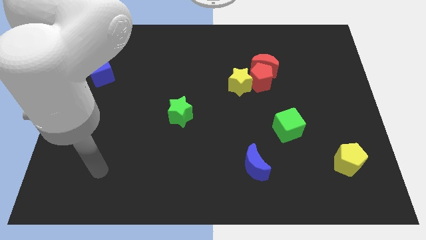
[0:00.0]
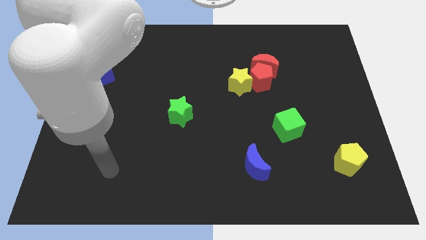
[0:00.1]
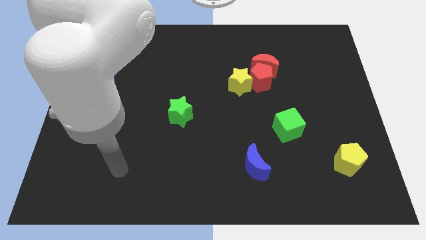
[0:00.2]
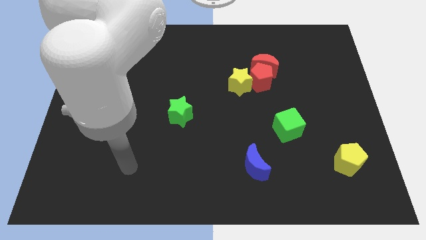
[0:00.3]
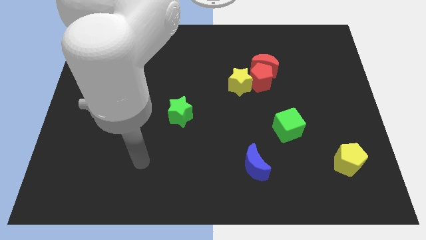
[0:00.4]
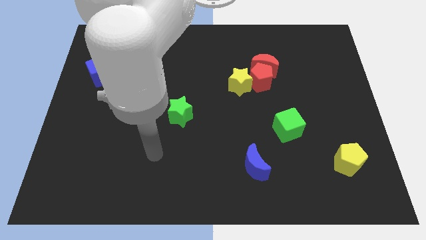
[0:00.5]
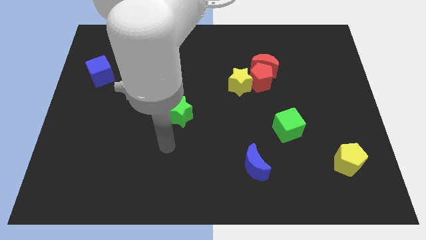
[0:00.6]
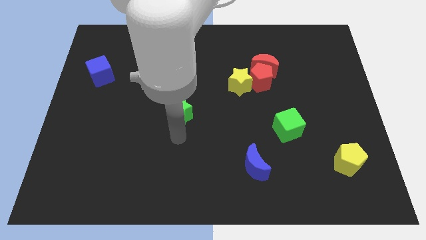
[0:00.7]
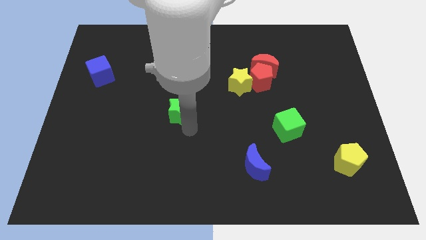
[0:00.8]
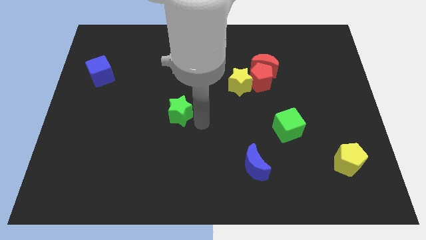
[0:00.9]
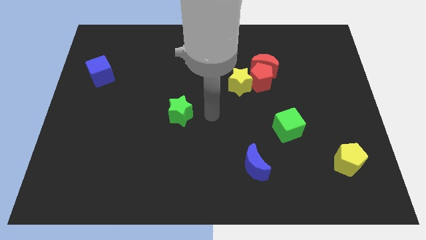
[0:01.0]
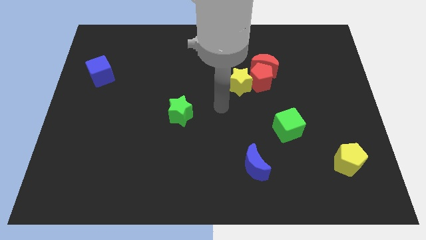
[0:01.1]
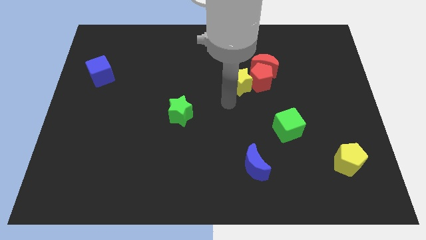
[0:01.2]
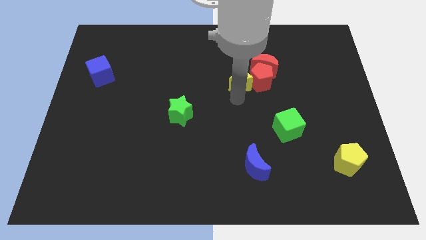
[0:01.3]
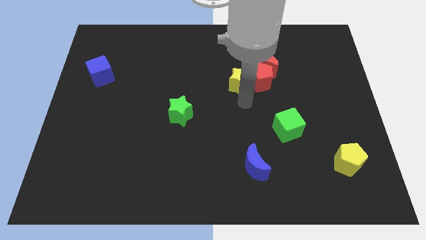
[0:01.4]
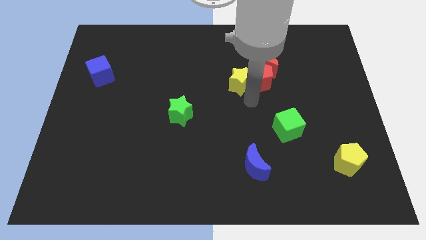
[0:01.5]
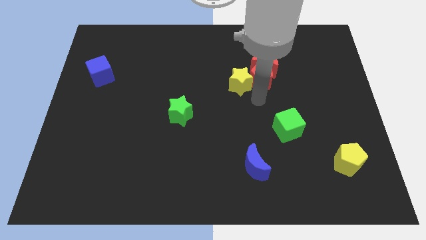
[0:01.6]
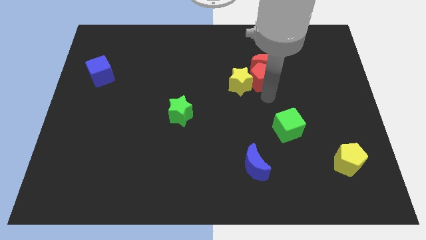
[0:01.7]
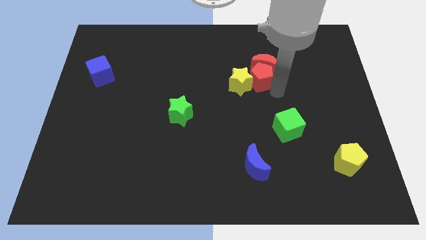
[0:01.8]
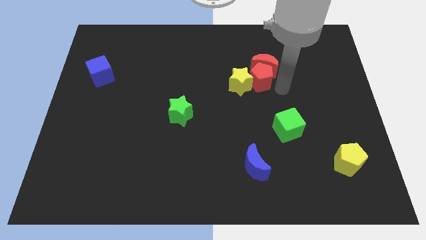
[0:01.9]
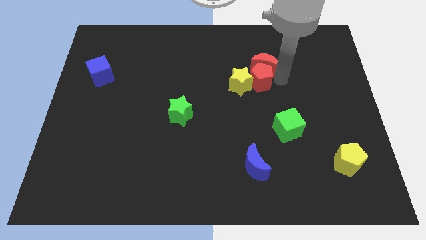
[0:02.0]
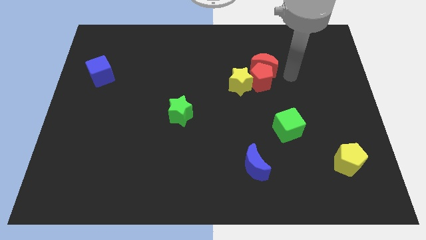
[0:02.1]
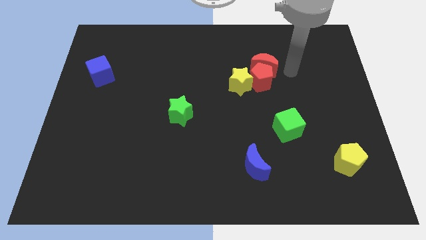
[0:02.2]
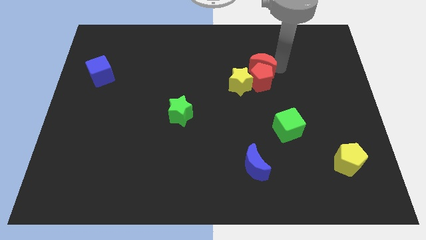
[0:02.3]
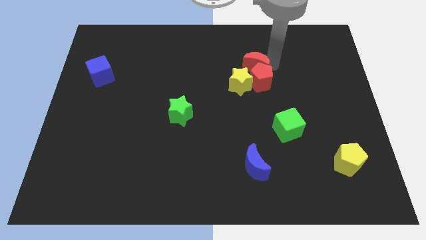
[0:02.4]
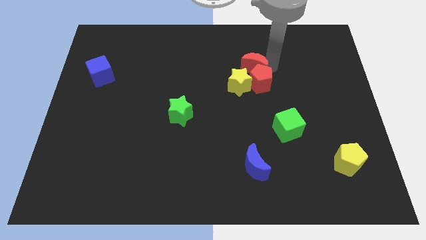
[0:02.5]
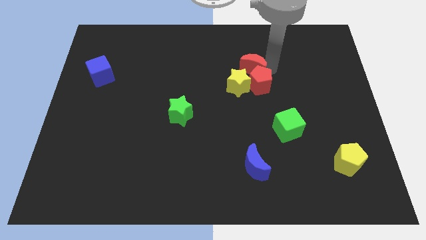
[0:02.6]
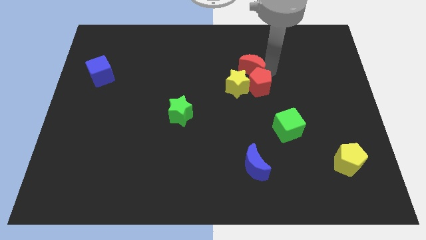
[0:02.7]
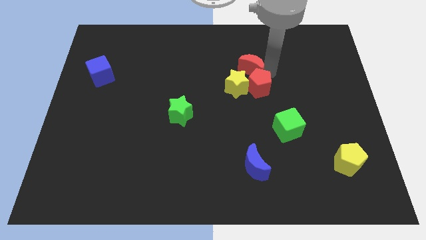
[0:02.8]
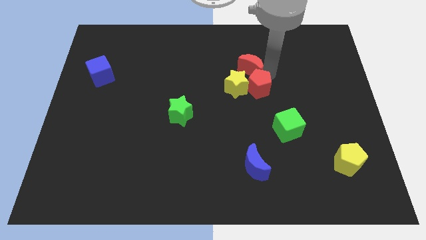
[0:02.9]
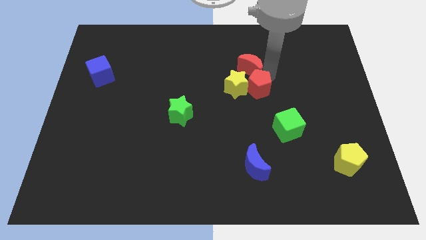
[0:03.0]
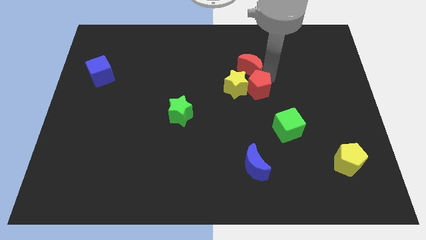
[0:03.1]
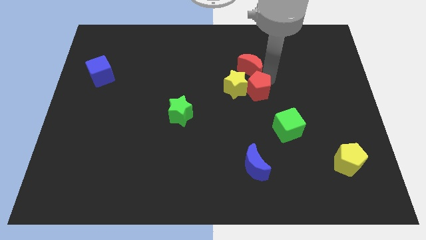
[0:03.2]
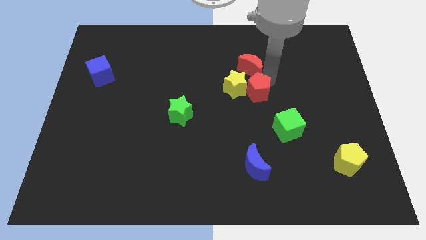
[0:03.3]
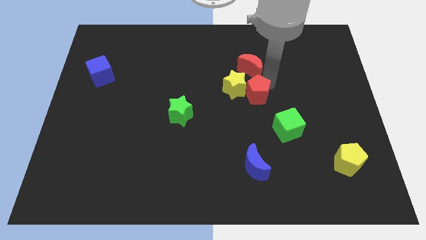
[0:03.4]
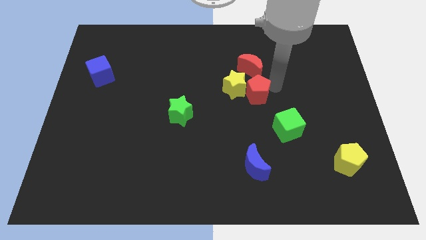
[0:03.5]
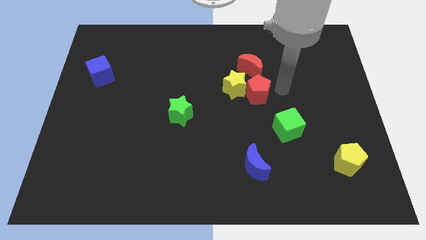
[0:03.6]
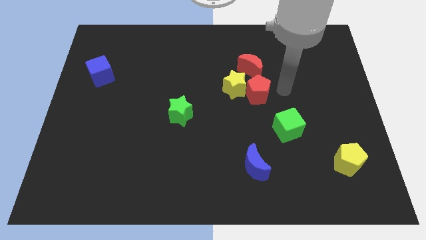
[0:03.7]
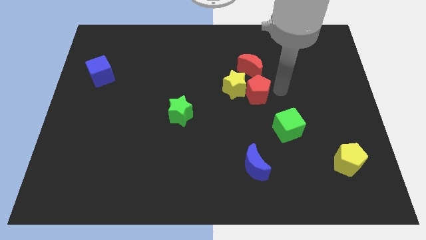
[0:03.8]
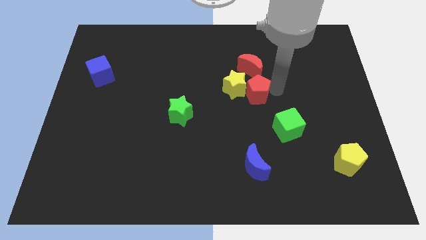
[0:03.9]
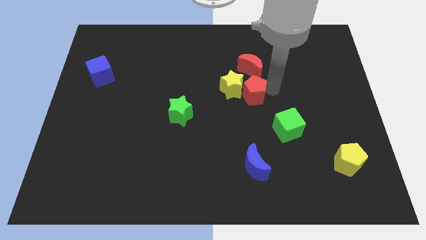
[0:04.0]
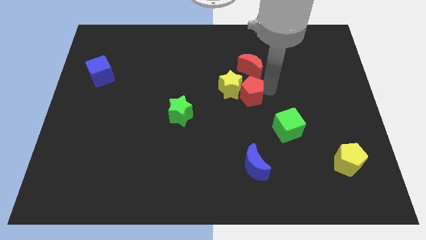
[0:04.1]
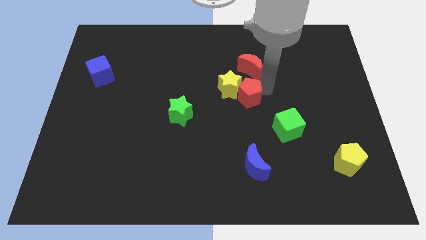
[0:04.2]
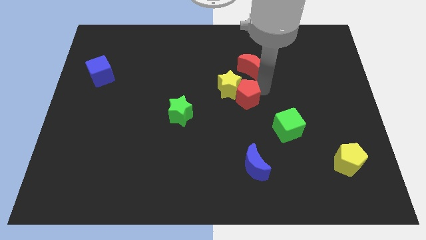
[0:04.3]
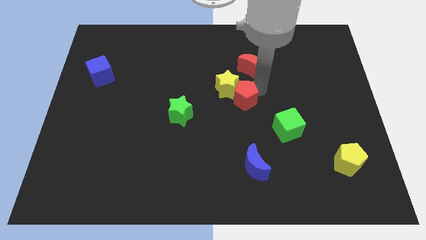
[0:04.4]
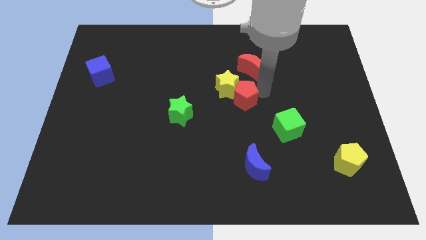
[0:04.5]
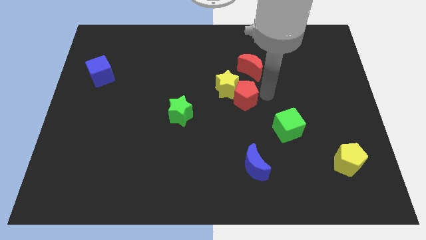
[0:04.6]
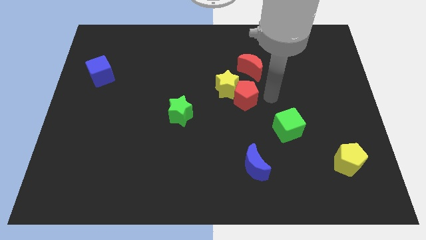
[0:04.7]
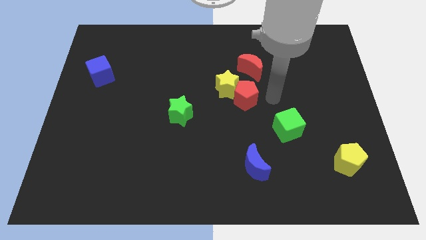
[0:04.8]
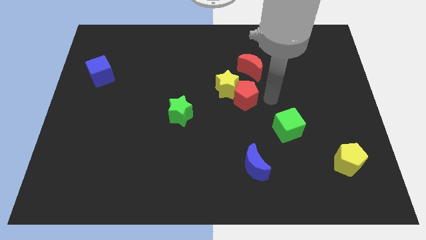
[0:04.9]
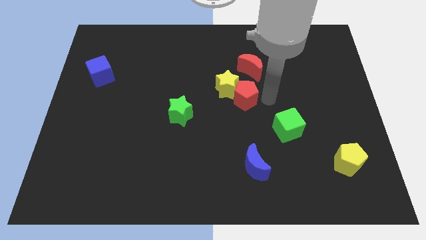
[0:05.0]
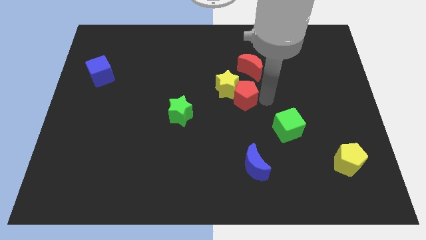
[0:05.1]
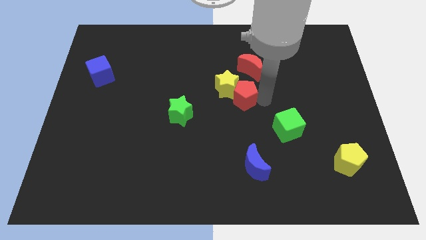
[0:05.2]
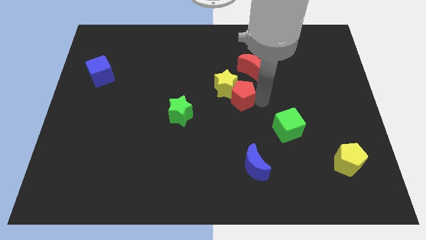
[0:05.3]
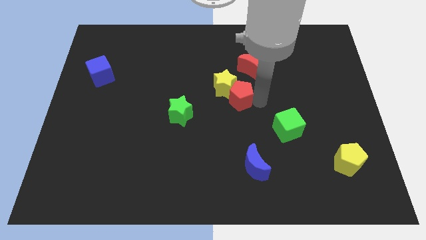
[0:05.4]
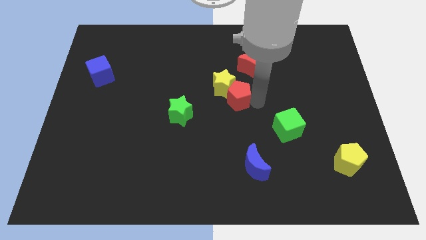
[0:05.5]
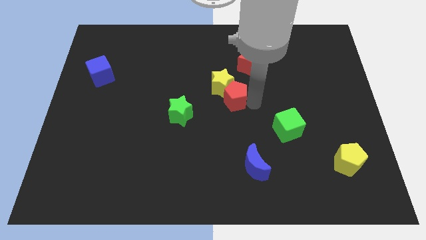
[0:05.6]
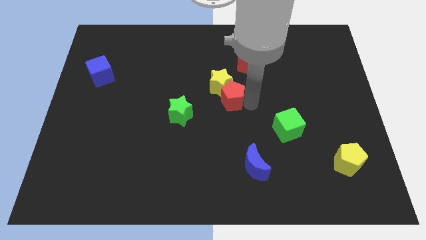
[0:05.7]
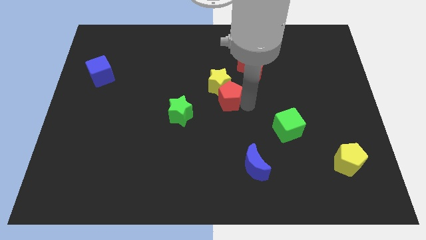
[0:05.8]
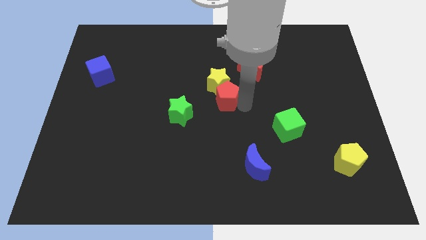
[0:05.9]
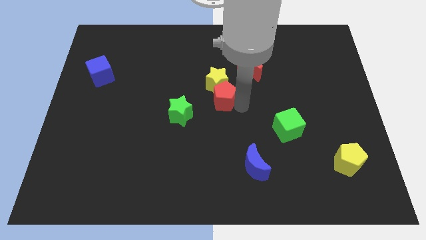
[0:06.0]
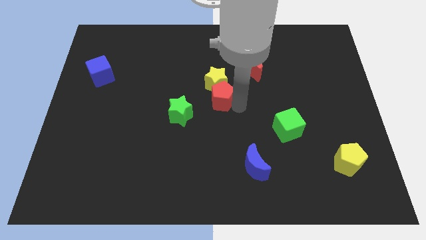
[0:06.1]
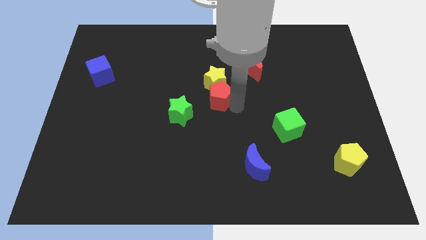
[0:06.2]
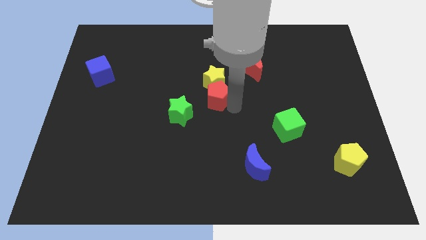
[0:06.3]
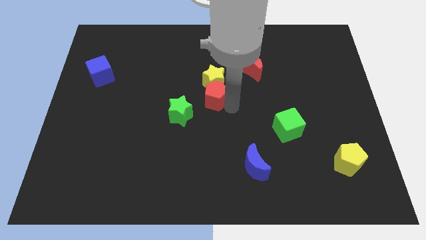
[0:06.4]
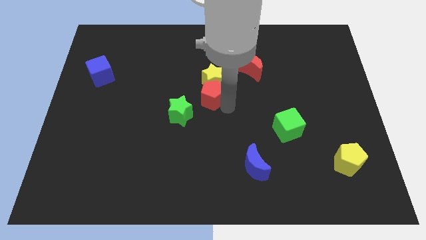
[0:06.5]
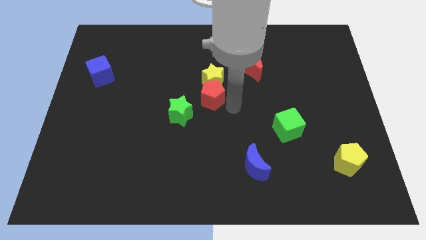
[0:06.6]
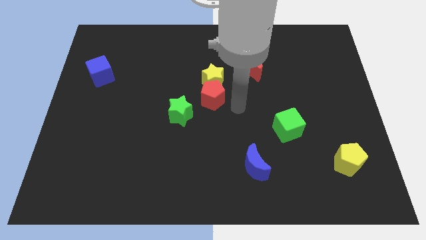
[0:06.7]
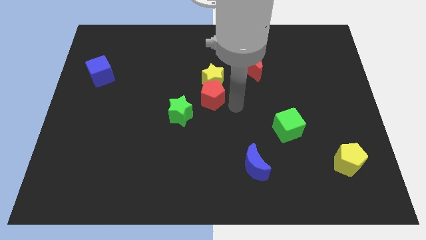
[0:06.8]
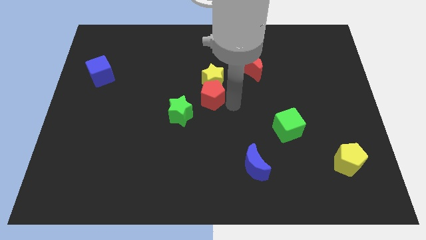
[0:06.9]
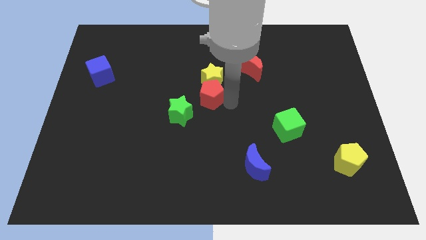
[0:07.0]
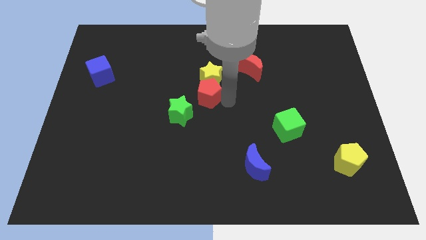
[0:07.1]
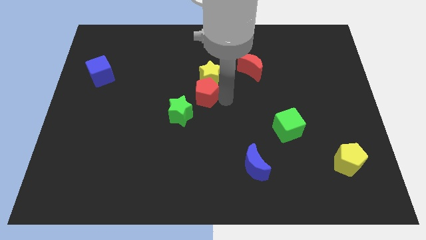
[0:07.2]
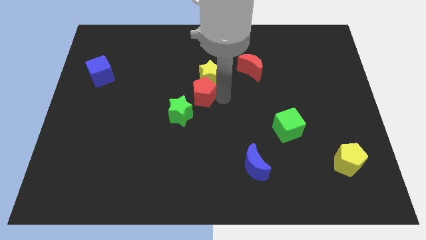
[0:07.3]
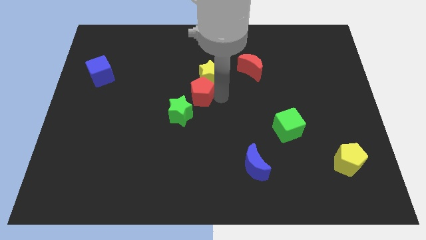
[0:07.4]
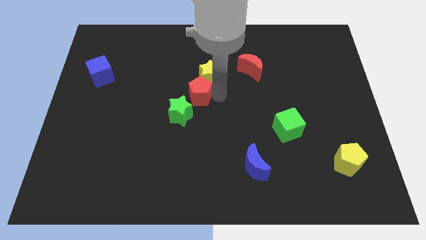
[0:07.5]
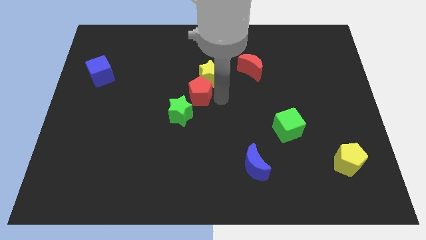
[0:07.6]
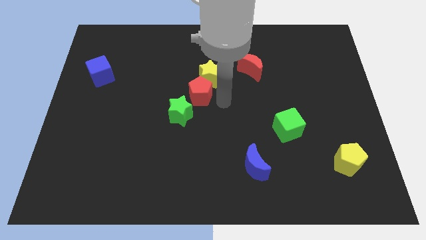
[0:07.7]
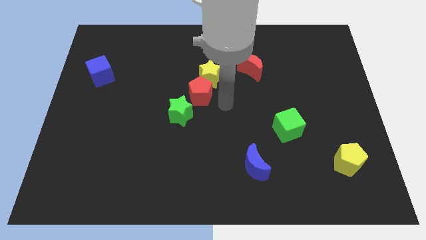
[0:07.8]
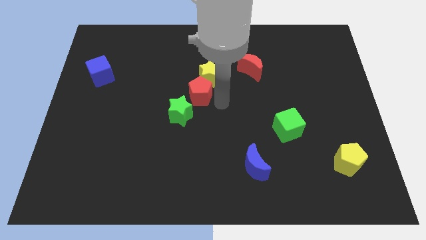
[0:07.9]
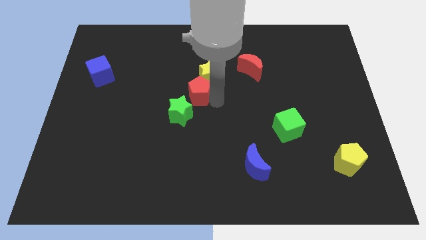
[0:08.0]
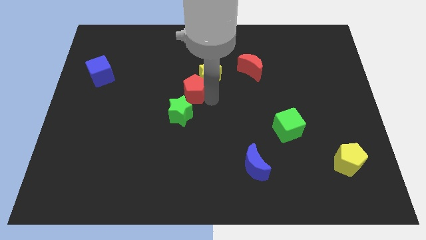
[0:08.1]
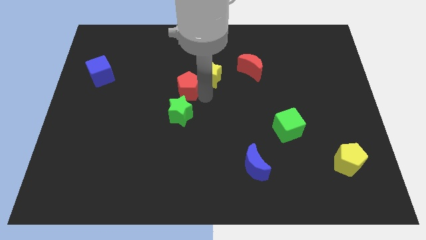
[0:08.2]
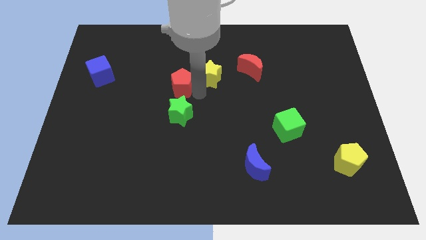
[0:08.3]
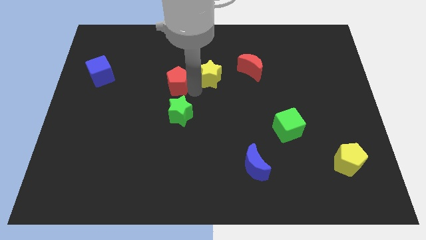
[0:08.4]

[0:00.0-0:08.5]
push the red pentagon left
